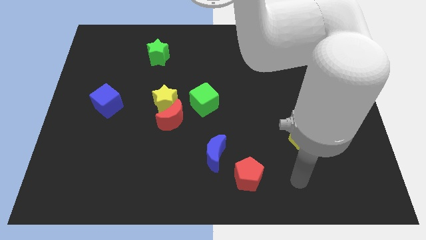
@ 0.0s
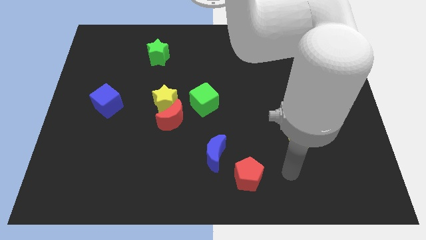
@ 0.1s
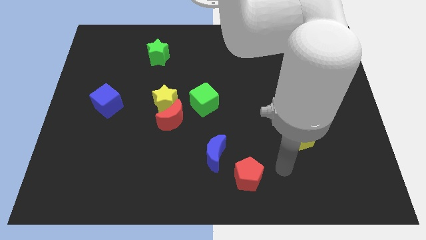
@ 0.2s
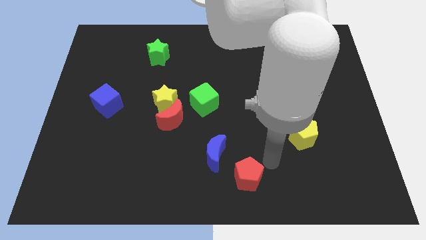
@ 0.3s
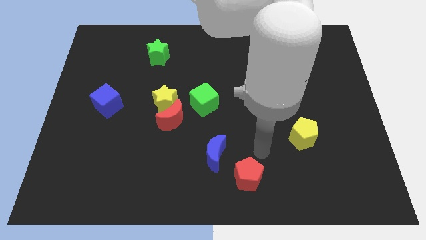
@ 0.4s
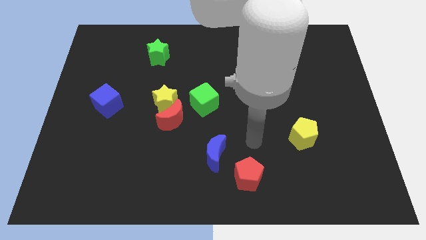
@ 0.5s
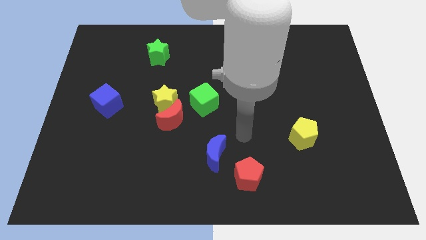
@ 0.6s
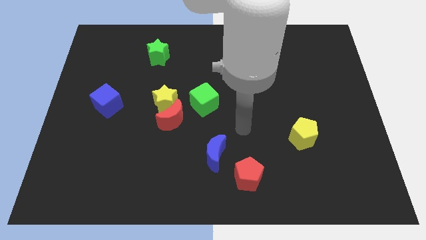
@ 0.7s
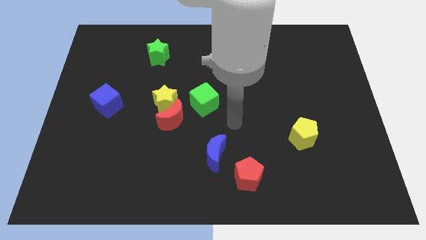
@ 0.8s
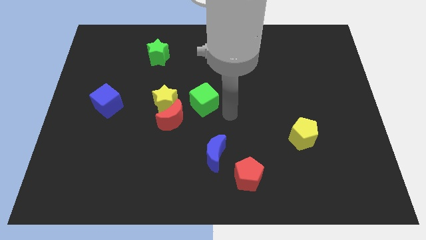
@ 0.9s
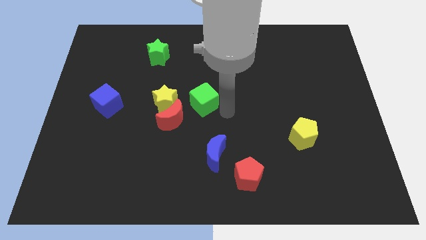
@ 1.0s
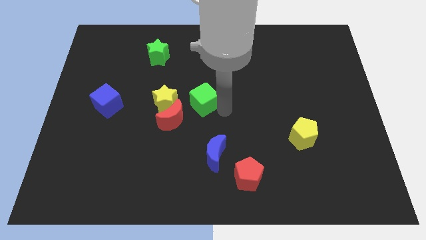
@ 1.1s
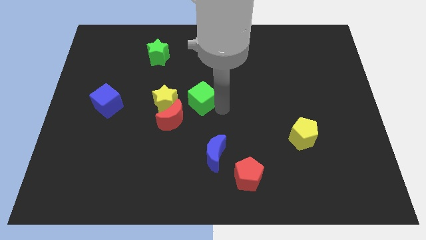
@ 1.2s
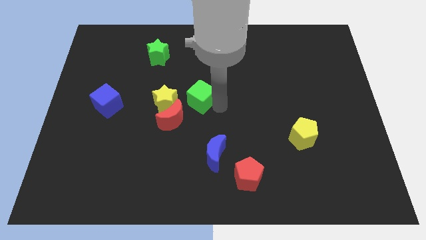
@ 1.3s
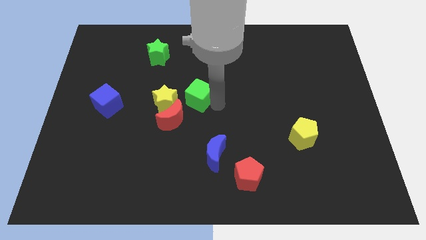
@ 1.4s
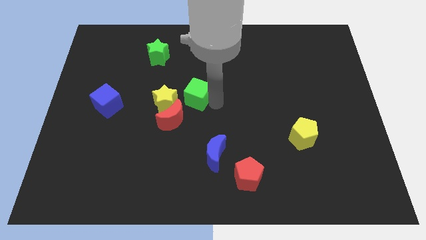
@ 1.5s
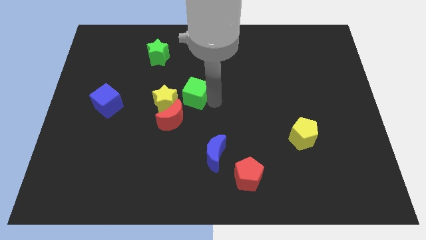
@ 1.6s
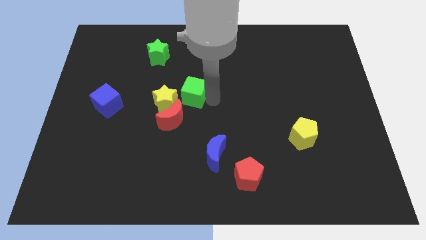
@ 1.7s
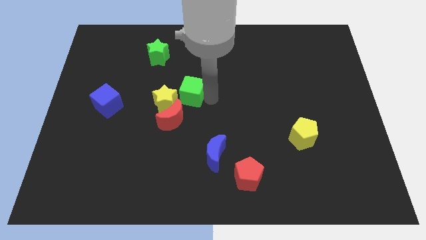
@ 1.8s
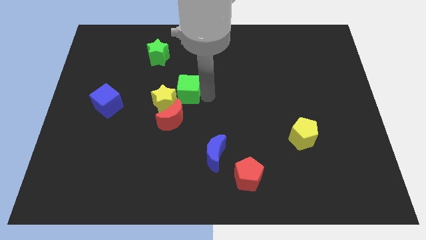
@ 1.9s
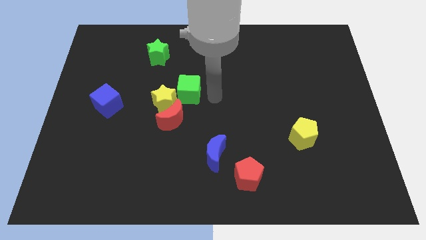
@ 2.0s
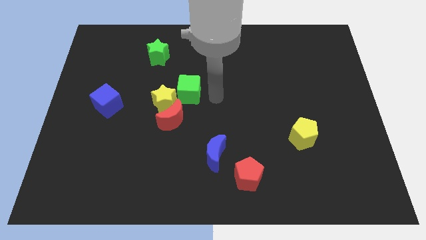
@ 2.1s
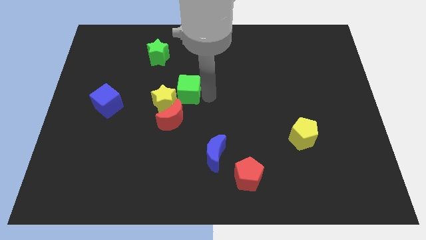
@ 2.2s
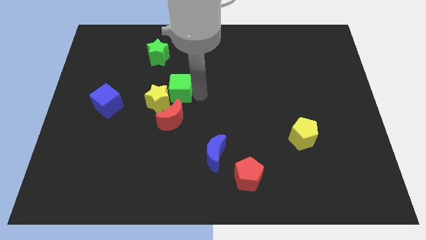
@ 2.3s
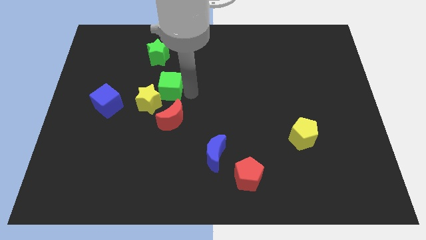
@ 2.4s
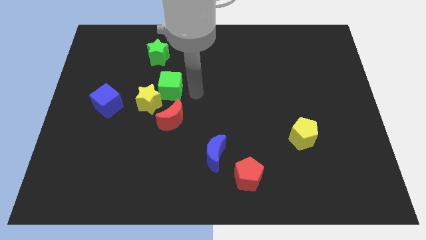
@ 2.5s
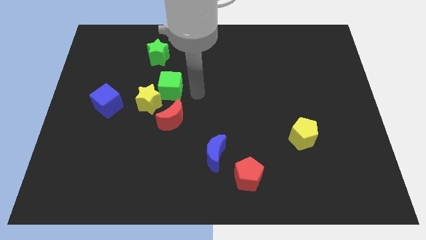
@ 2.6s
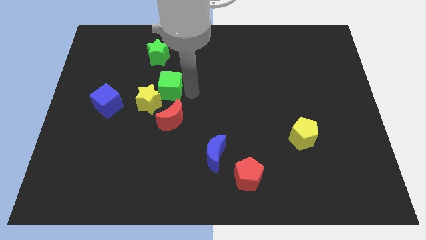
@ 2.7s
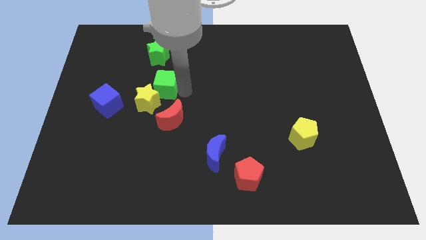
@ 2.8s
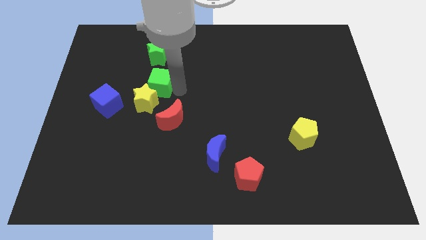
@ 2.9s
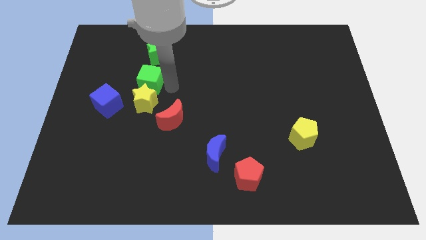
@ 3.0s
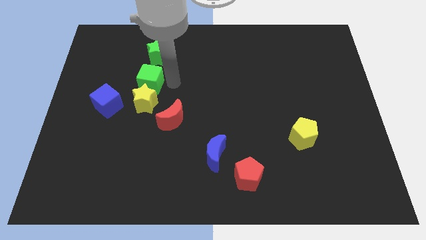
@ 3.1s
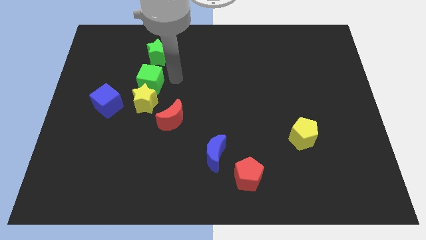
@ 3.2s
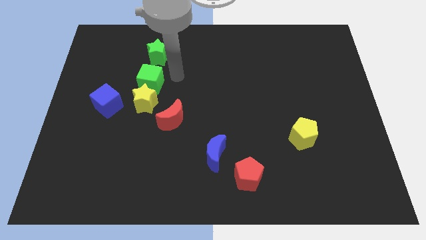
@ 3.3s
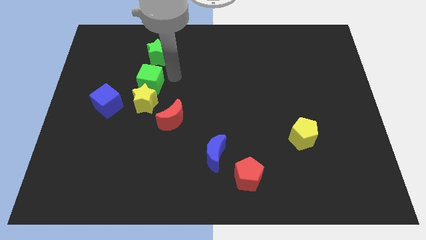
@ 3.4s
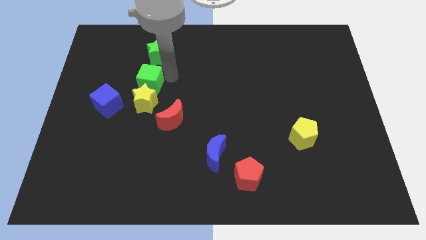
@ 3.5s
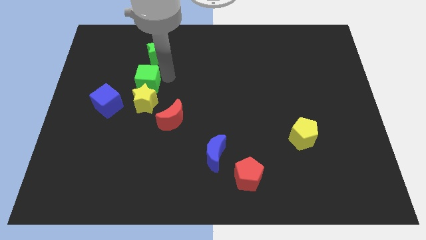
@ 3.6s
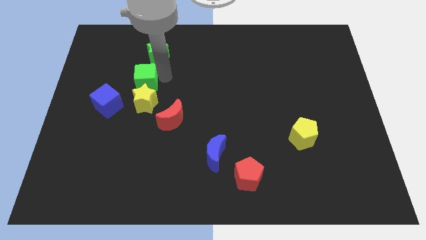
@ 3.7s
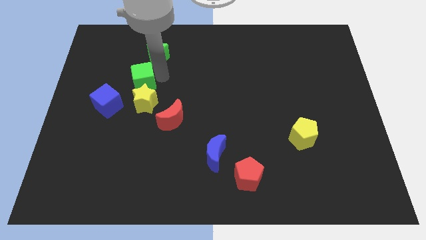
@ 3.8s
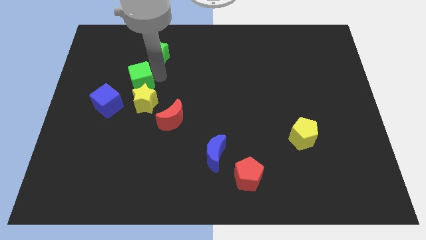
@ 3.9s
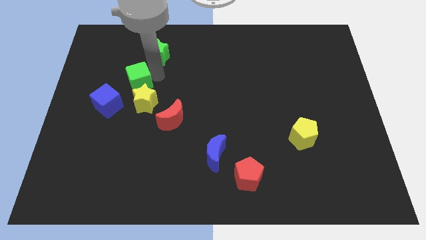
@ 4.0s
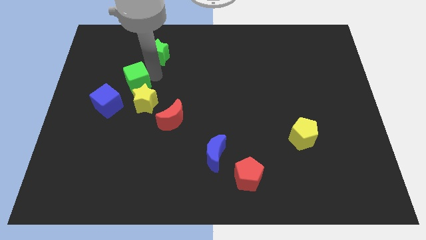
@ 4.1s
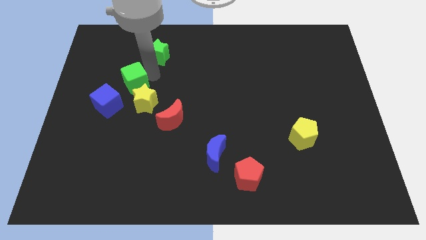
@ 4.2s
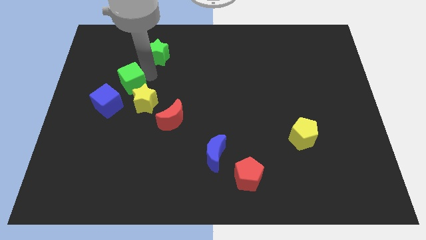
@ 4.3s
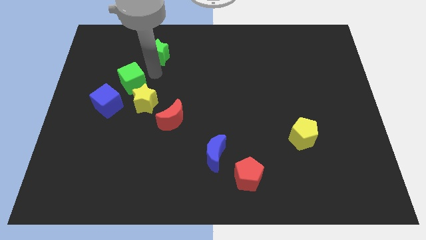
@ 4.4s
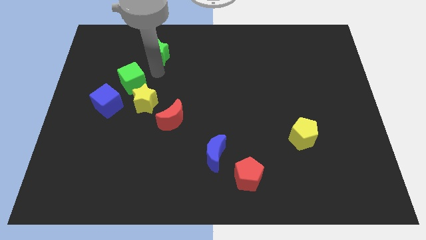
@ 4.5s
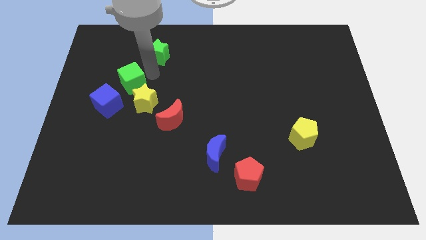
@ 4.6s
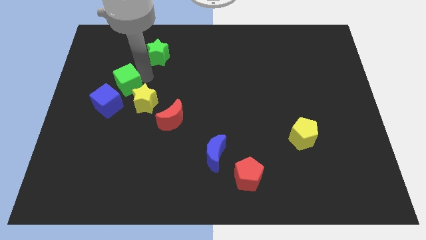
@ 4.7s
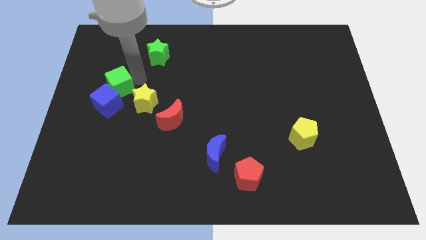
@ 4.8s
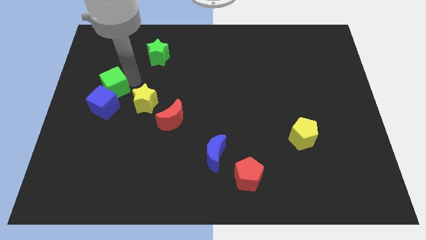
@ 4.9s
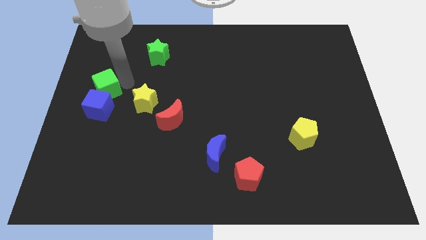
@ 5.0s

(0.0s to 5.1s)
put the green cube to the center left
